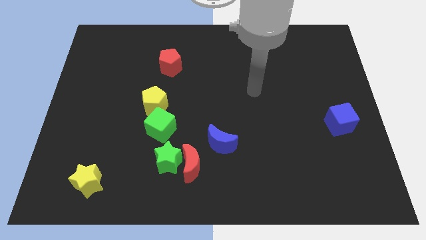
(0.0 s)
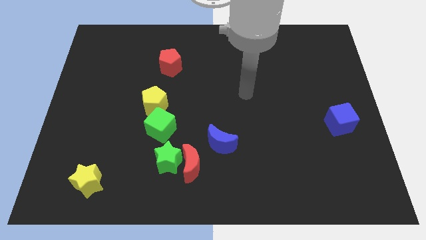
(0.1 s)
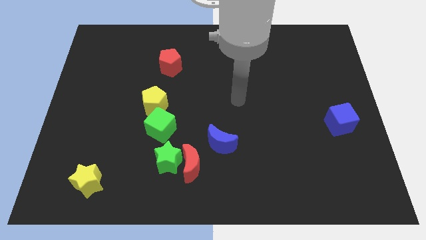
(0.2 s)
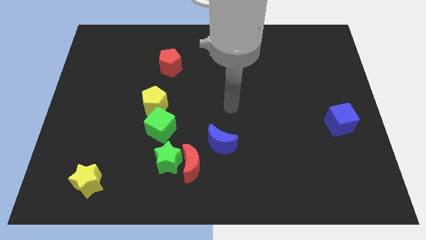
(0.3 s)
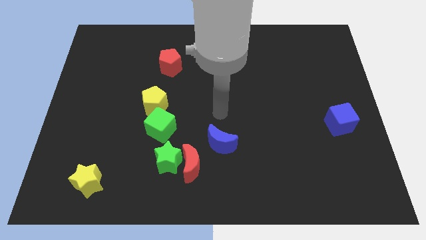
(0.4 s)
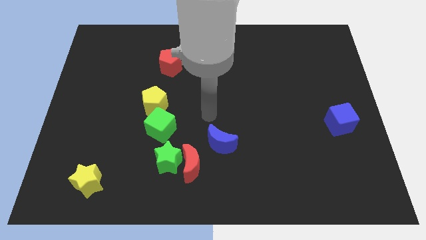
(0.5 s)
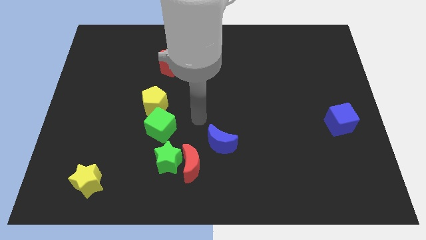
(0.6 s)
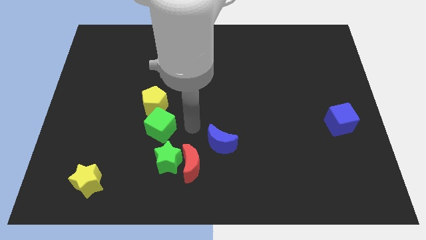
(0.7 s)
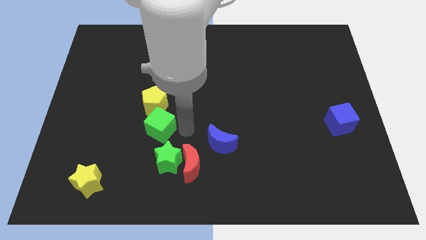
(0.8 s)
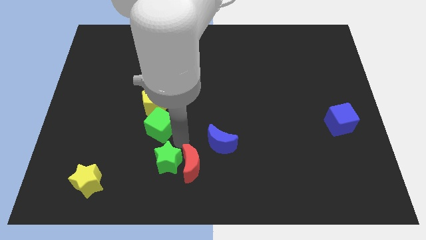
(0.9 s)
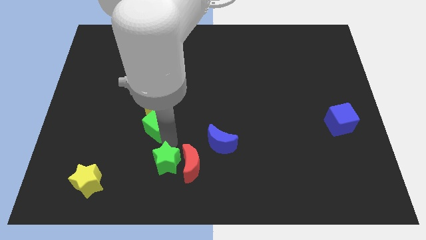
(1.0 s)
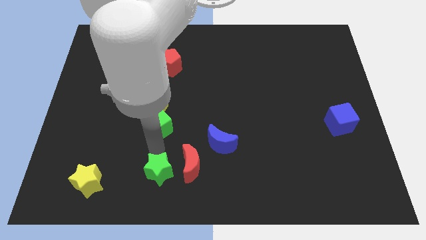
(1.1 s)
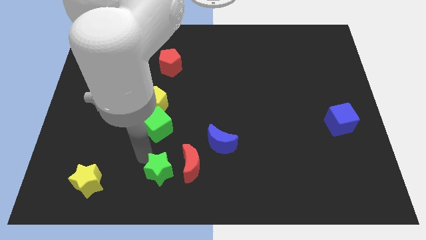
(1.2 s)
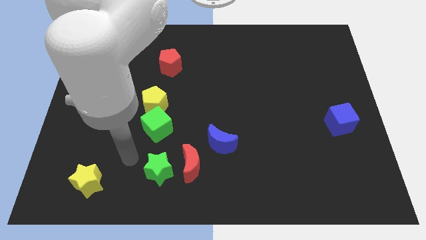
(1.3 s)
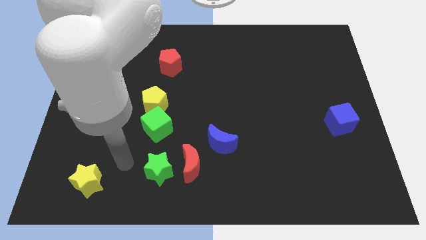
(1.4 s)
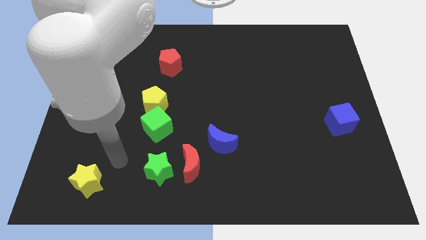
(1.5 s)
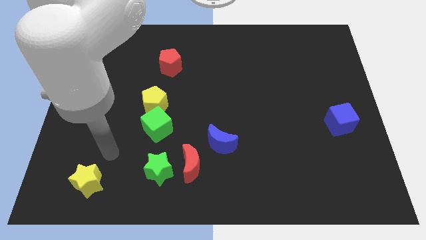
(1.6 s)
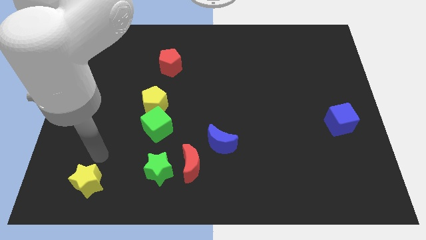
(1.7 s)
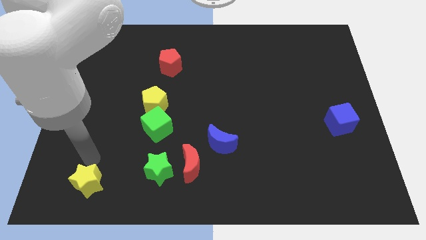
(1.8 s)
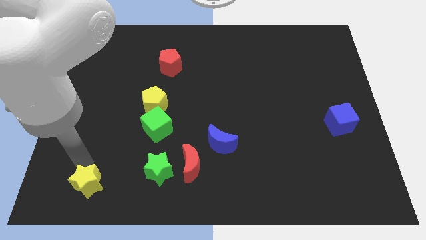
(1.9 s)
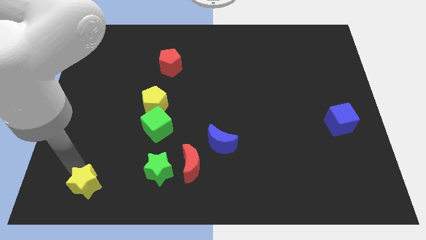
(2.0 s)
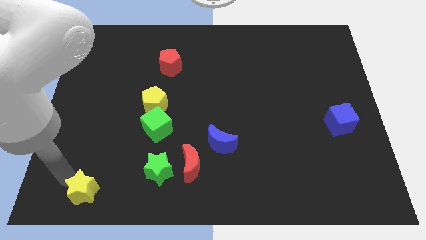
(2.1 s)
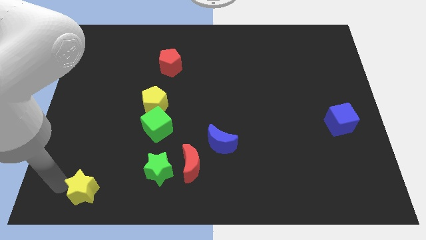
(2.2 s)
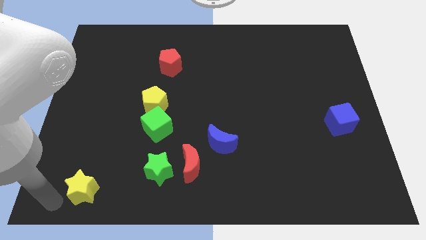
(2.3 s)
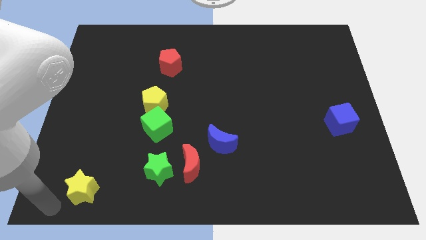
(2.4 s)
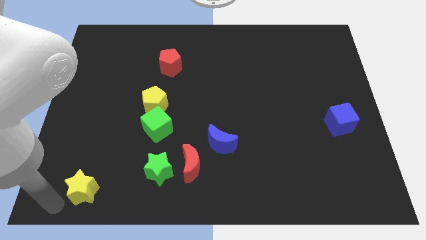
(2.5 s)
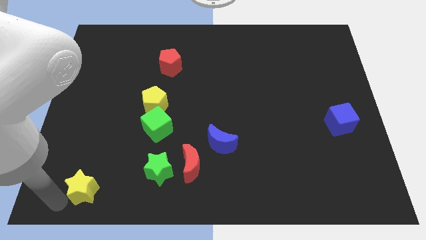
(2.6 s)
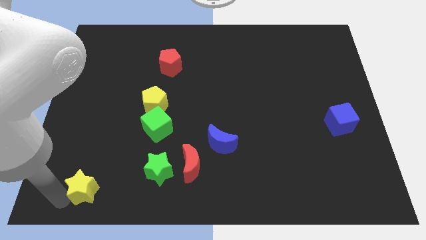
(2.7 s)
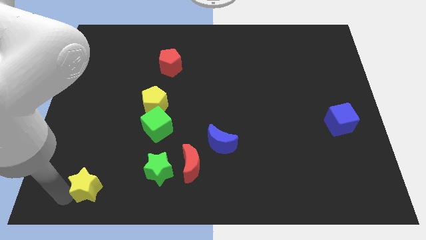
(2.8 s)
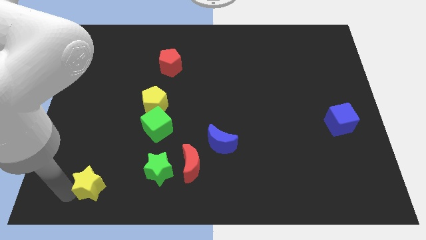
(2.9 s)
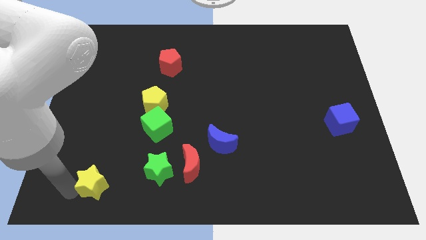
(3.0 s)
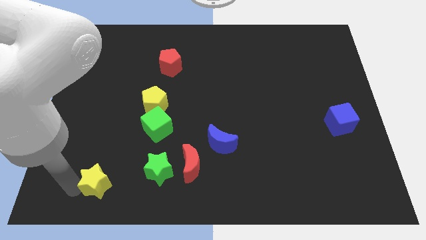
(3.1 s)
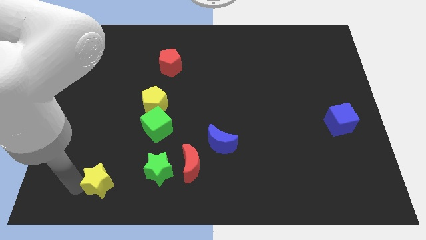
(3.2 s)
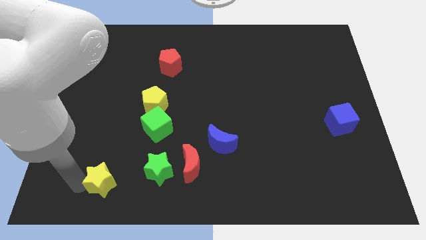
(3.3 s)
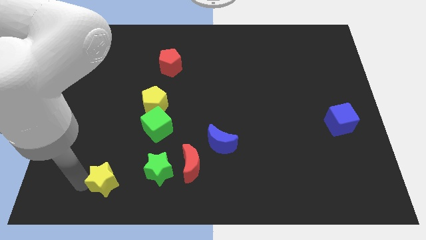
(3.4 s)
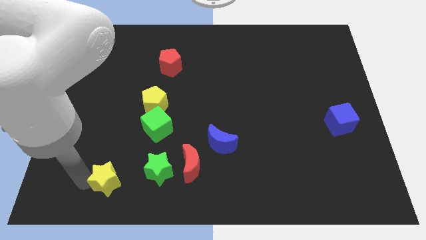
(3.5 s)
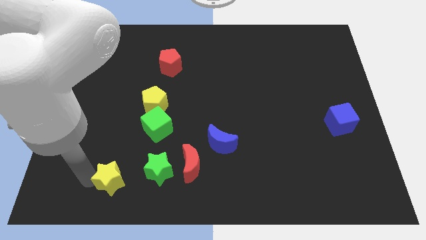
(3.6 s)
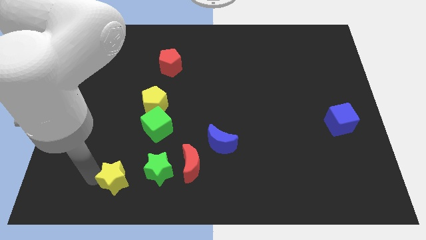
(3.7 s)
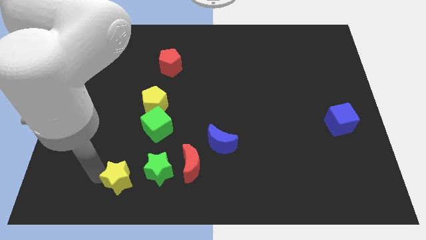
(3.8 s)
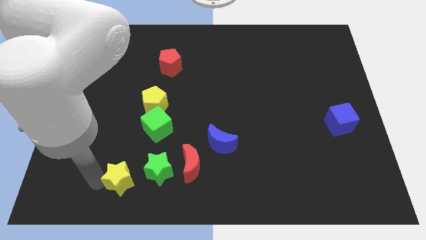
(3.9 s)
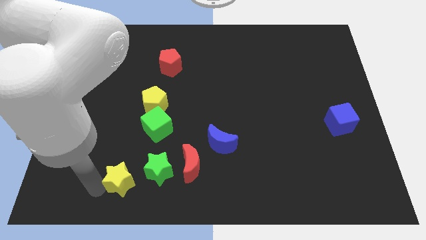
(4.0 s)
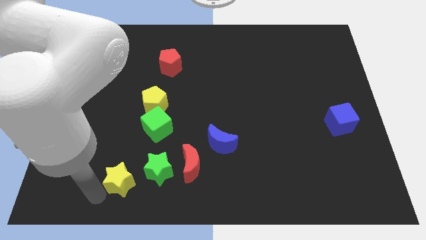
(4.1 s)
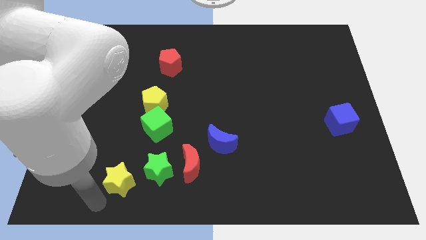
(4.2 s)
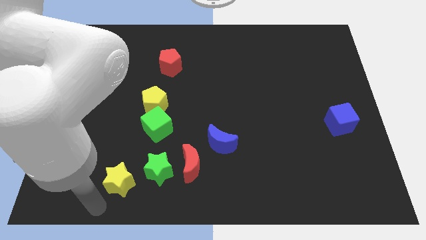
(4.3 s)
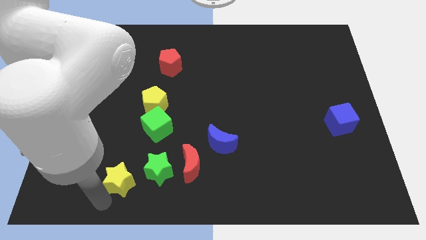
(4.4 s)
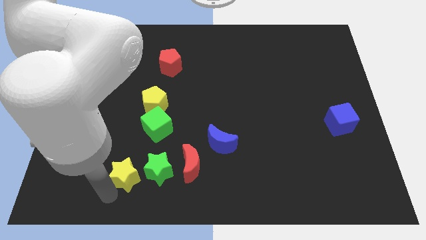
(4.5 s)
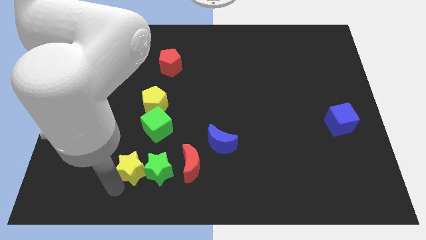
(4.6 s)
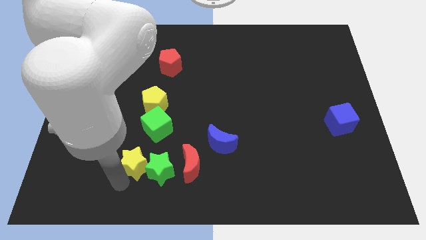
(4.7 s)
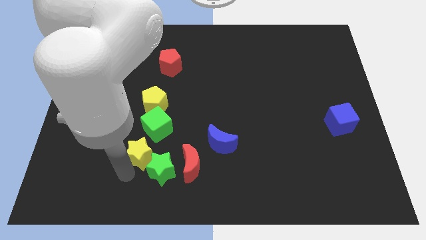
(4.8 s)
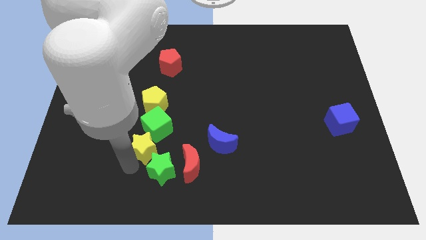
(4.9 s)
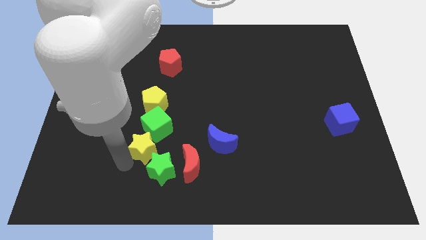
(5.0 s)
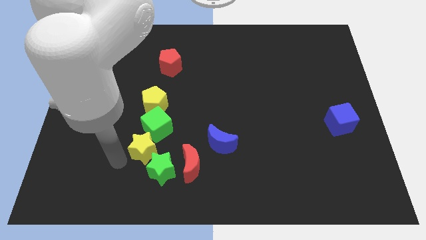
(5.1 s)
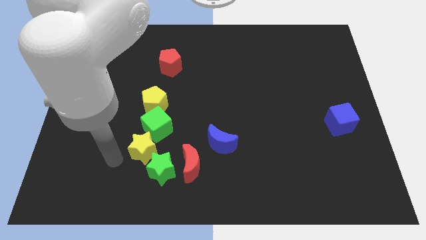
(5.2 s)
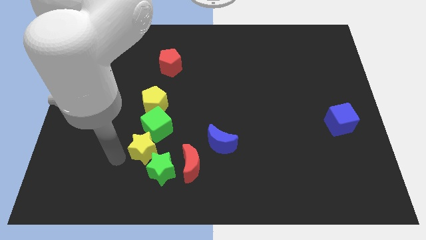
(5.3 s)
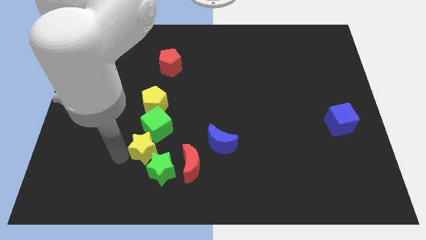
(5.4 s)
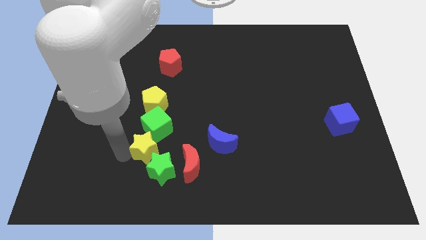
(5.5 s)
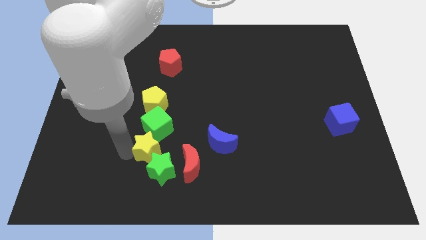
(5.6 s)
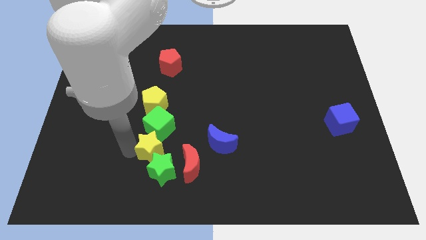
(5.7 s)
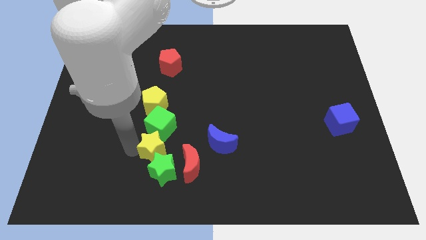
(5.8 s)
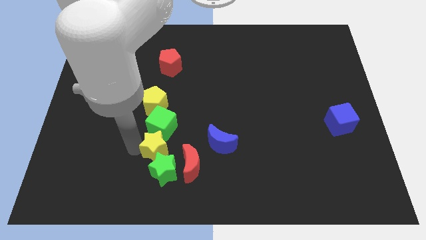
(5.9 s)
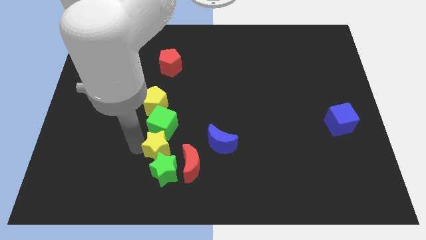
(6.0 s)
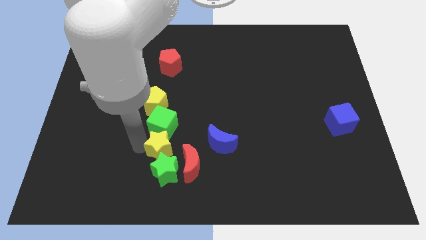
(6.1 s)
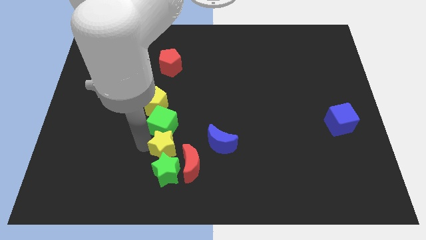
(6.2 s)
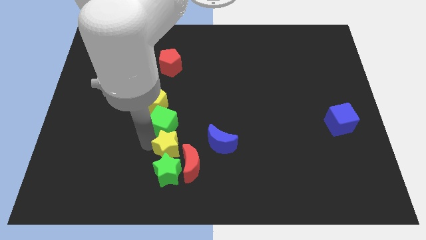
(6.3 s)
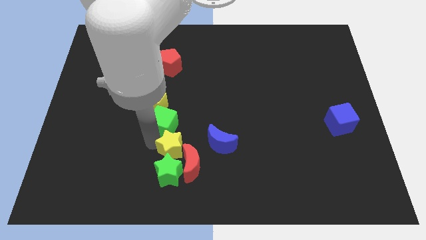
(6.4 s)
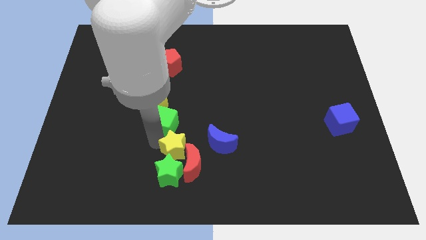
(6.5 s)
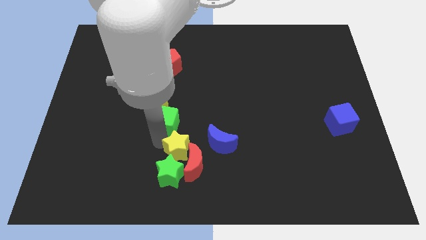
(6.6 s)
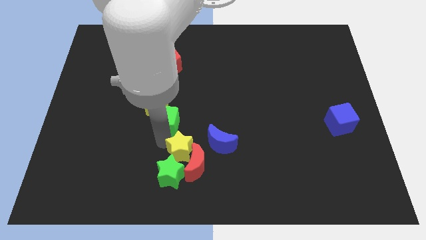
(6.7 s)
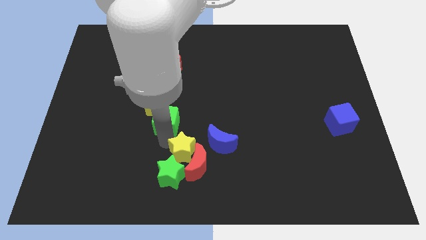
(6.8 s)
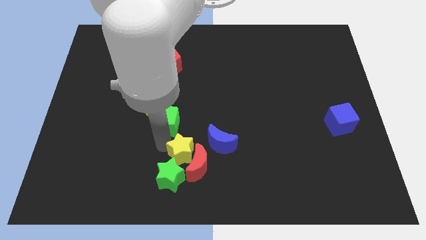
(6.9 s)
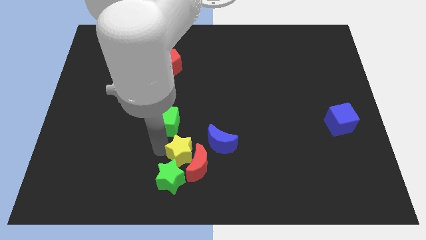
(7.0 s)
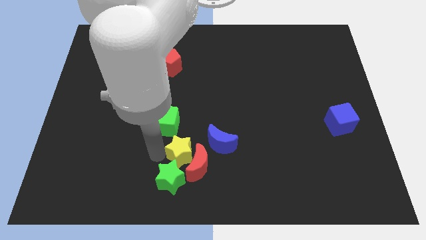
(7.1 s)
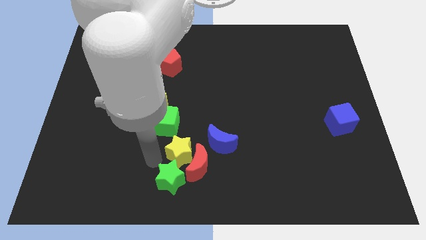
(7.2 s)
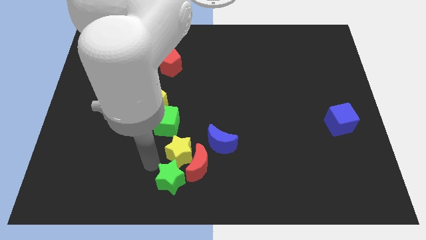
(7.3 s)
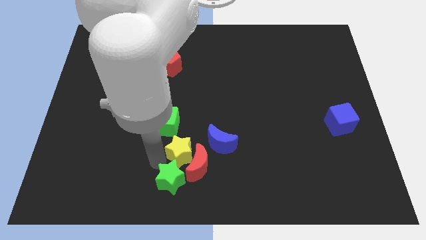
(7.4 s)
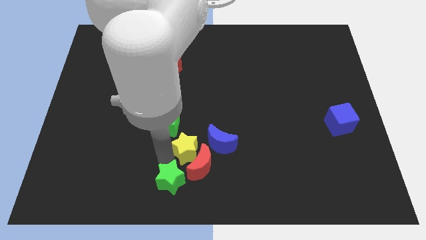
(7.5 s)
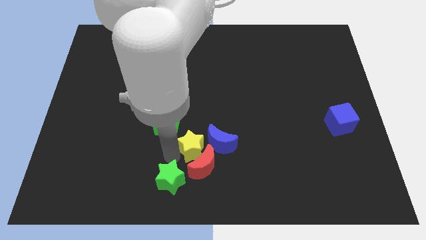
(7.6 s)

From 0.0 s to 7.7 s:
push the yellow star next to the blue moon

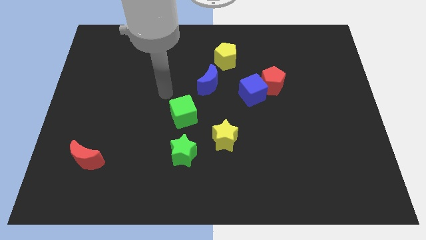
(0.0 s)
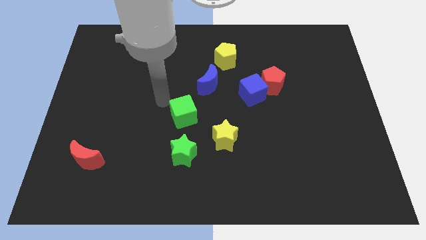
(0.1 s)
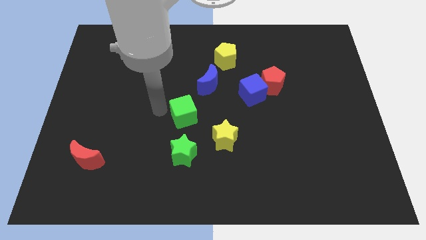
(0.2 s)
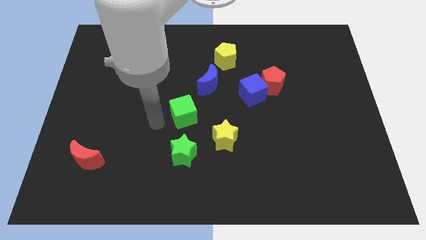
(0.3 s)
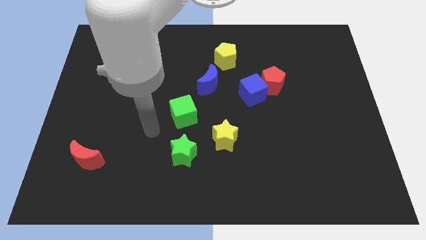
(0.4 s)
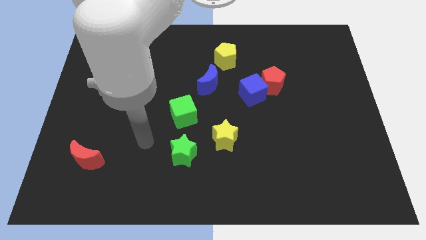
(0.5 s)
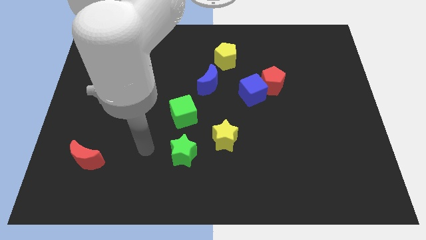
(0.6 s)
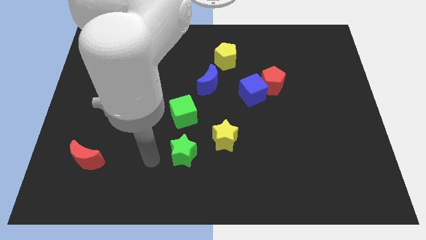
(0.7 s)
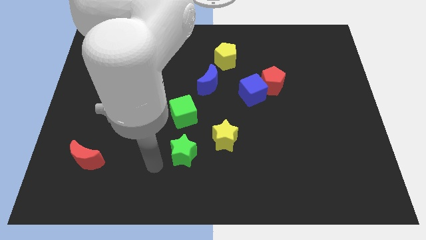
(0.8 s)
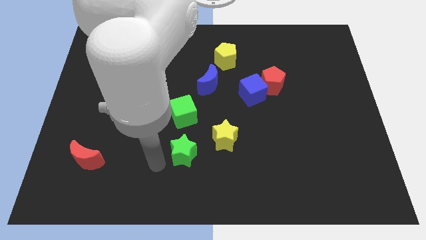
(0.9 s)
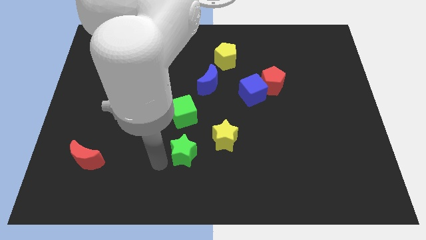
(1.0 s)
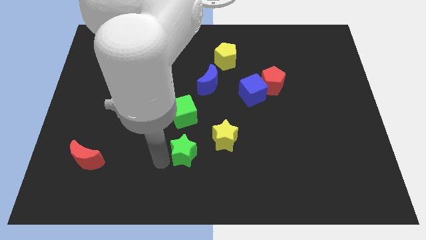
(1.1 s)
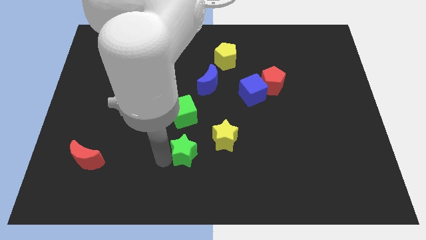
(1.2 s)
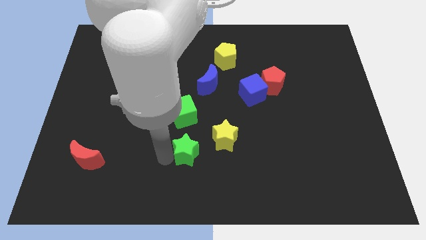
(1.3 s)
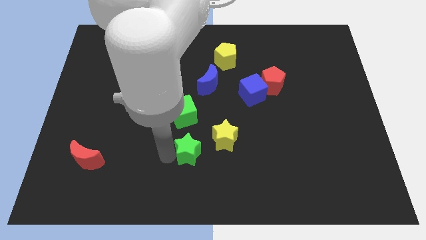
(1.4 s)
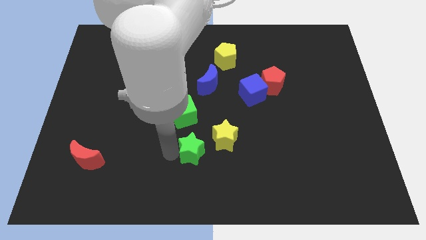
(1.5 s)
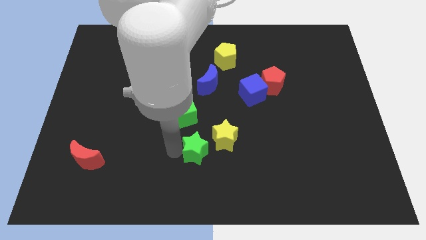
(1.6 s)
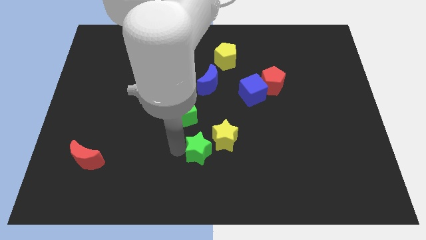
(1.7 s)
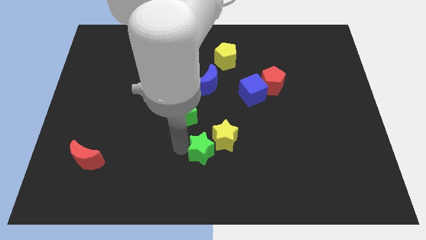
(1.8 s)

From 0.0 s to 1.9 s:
put the green star to the yellow star
